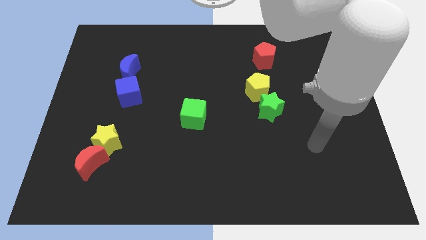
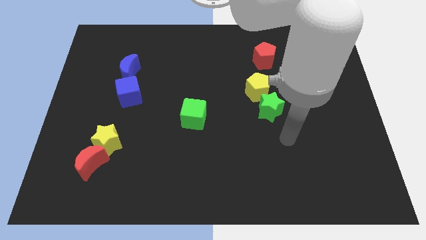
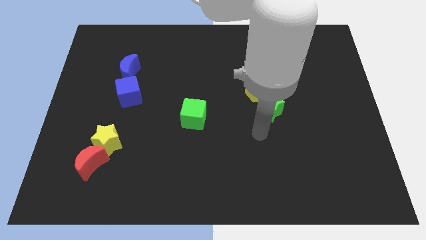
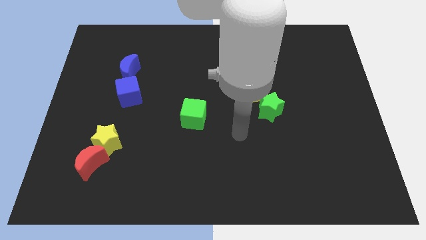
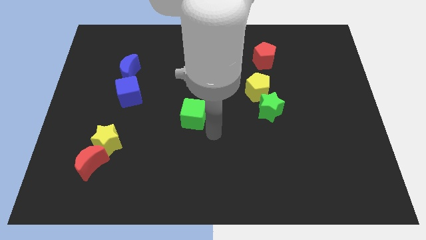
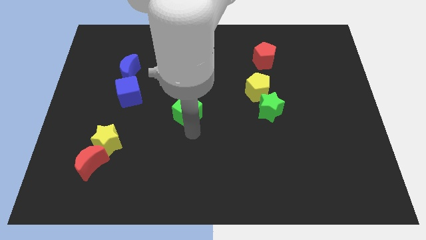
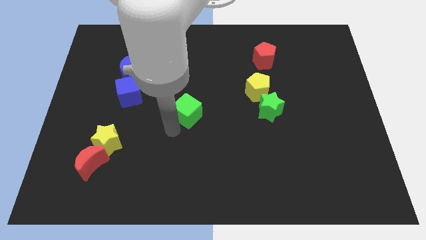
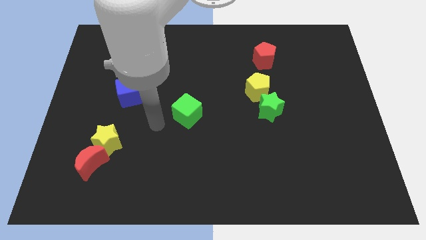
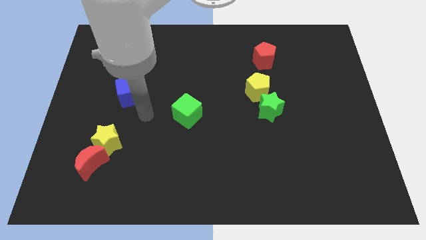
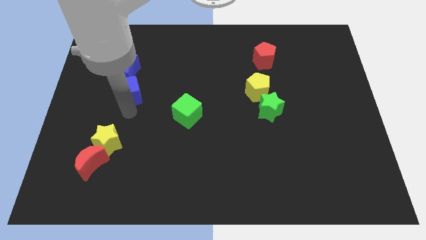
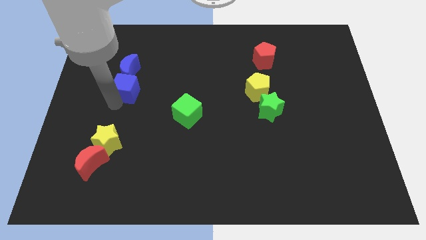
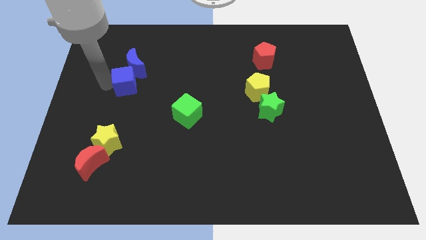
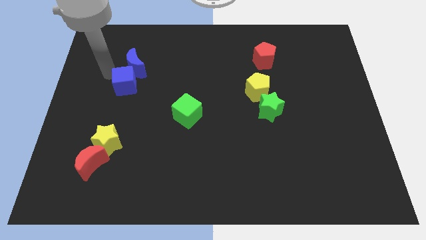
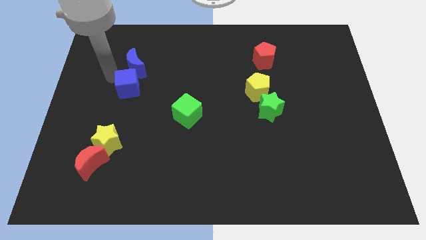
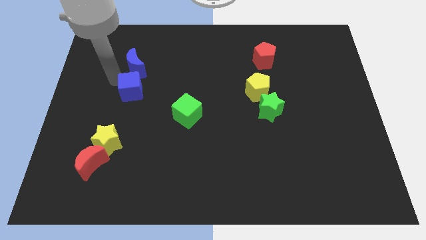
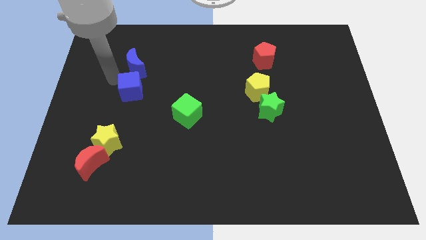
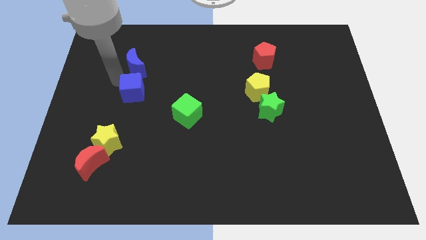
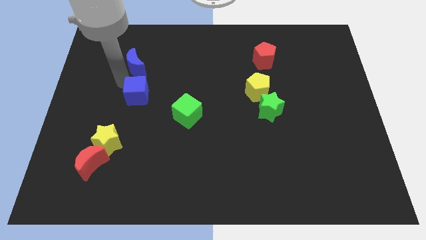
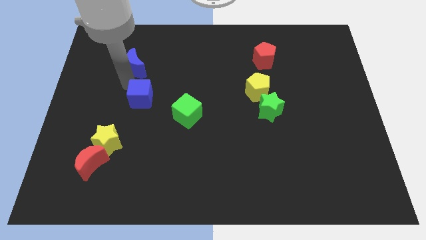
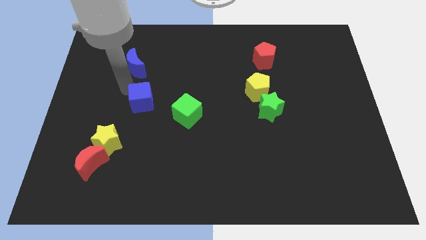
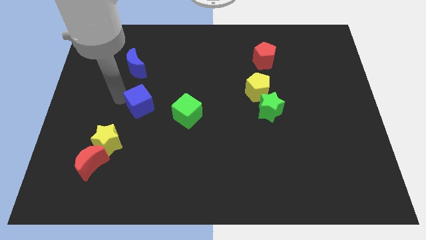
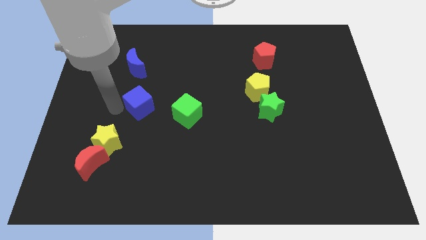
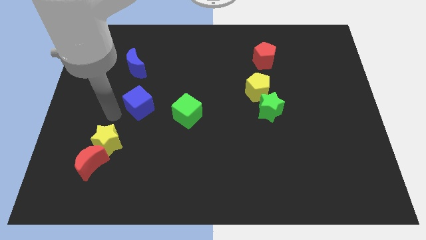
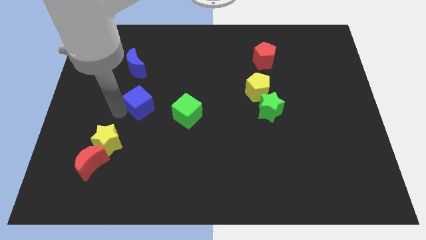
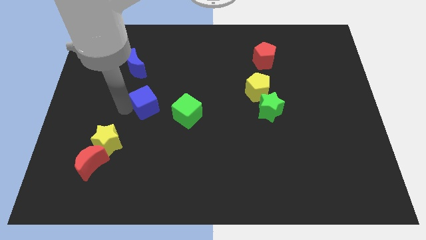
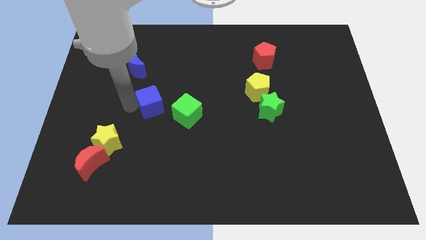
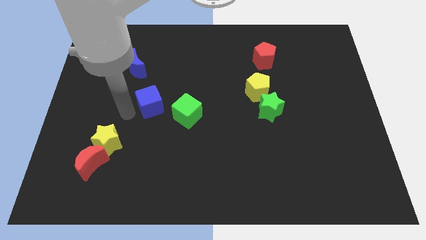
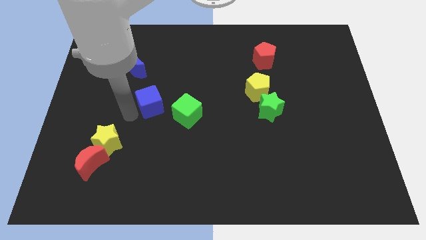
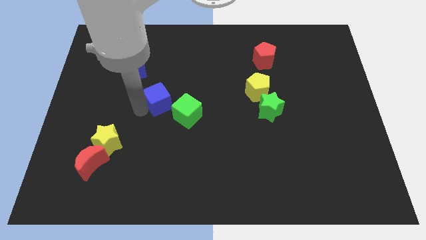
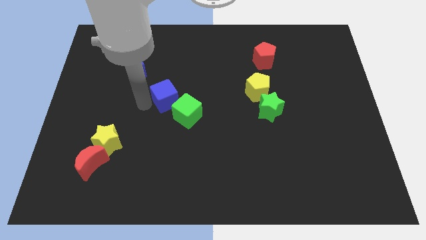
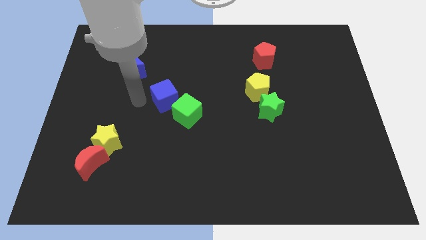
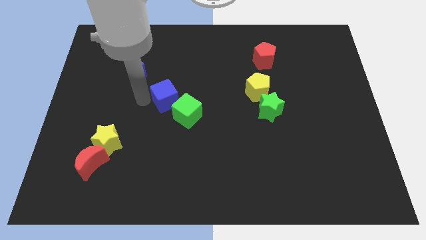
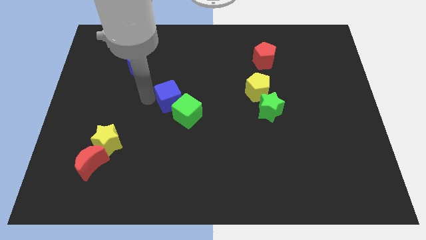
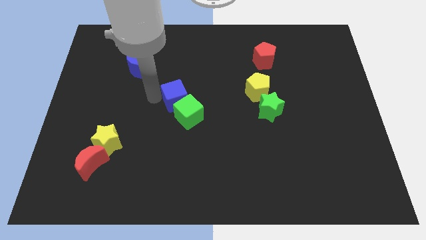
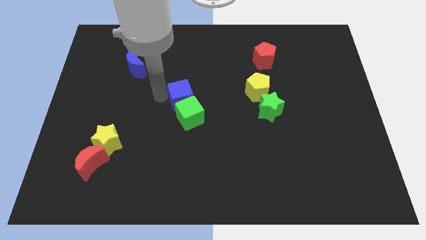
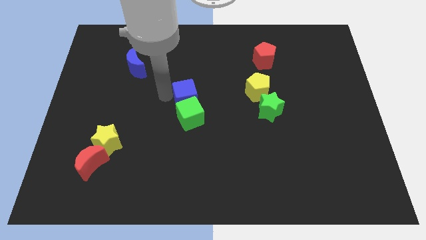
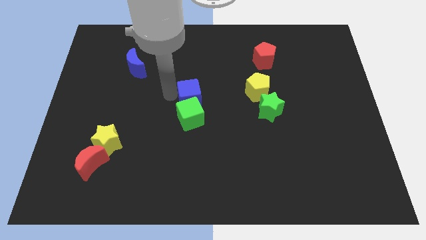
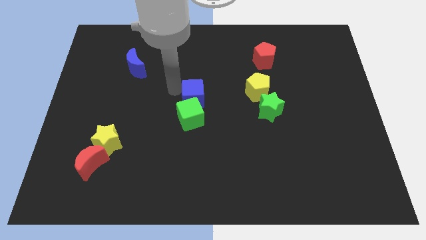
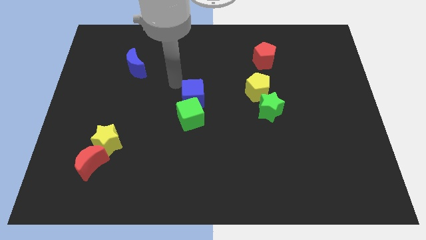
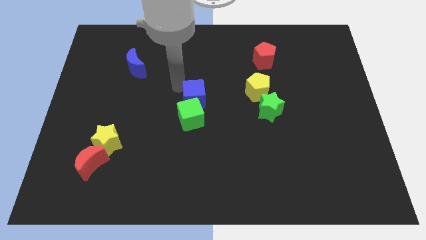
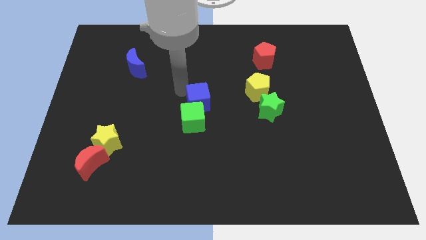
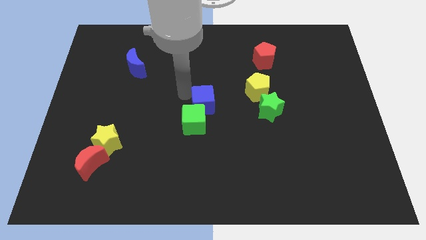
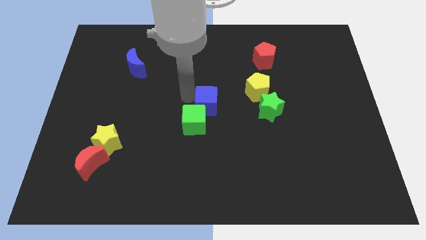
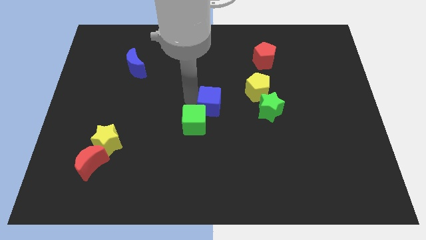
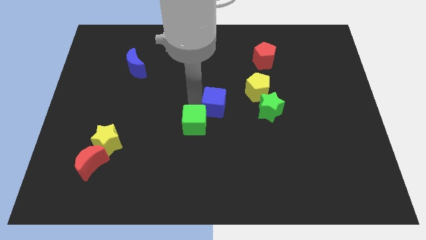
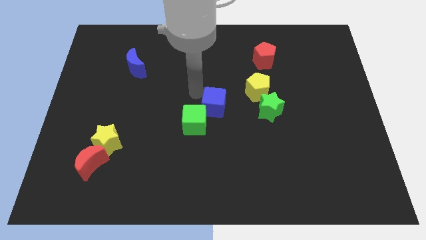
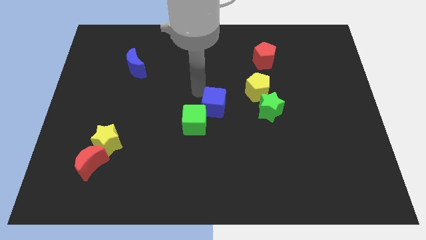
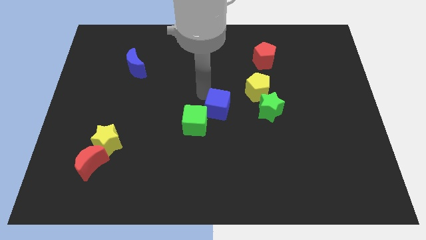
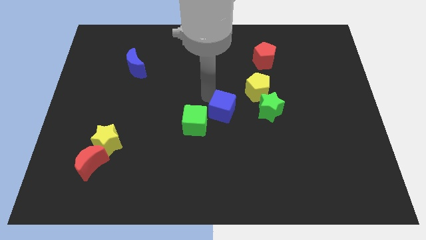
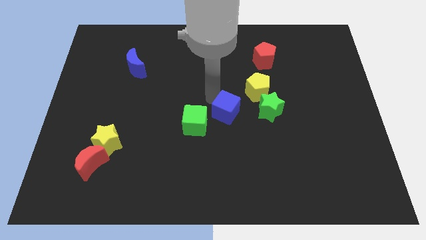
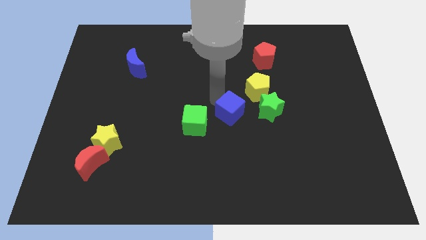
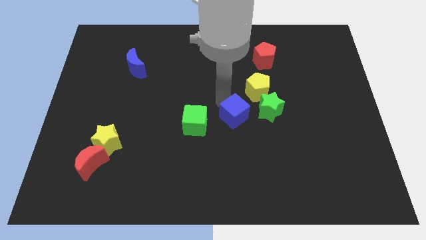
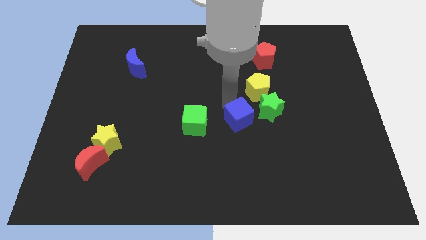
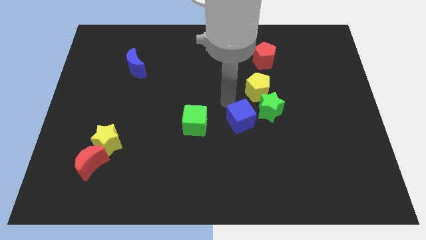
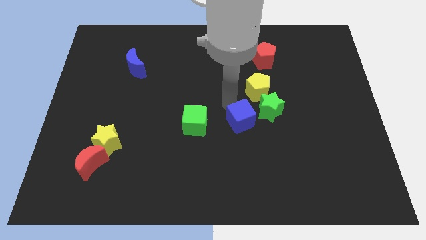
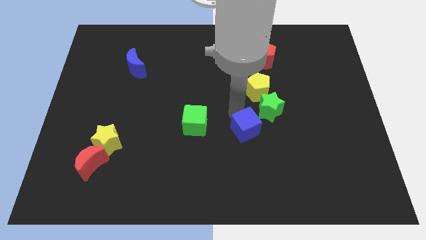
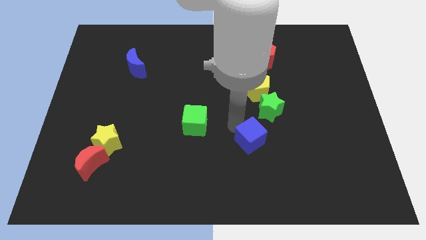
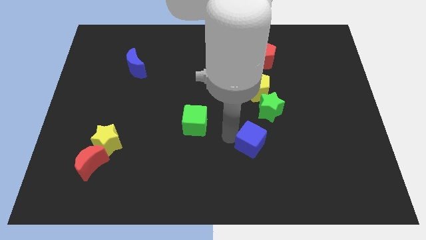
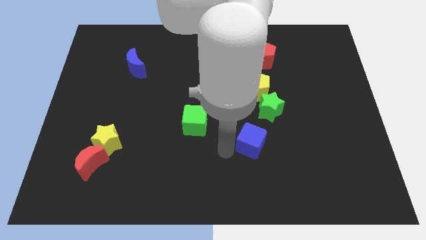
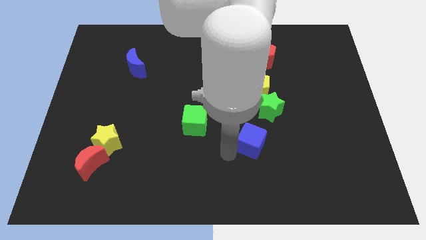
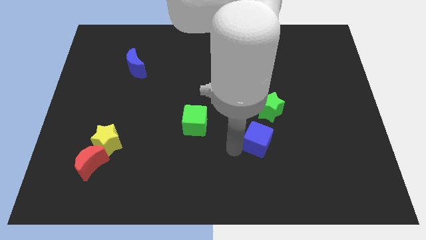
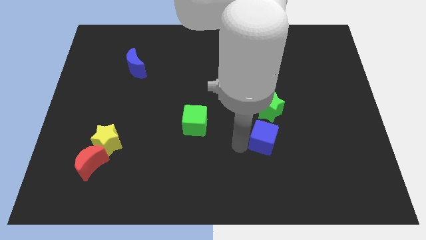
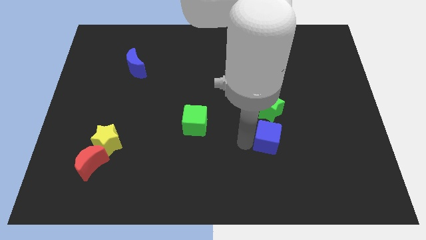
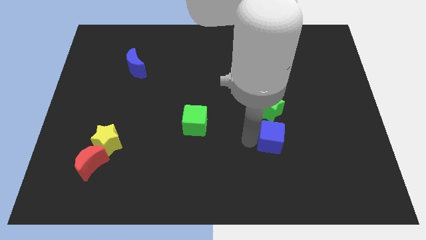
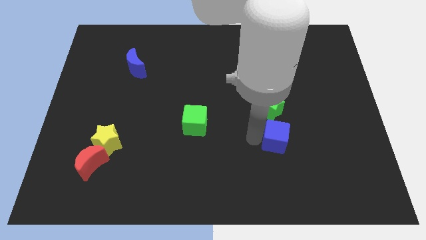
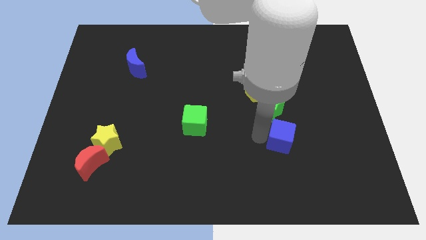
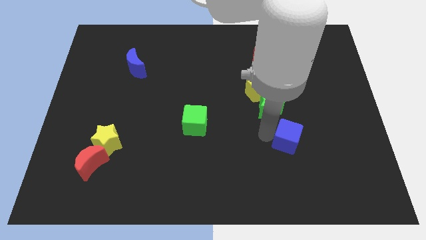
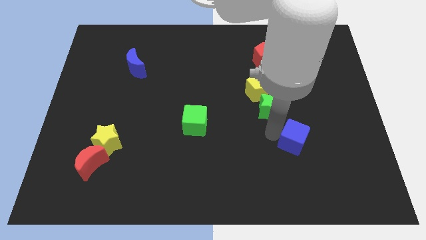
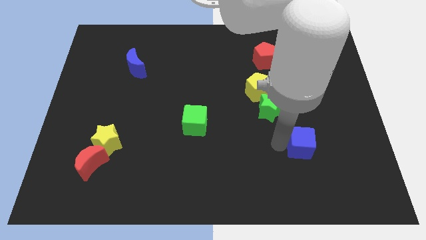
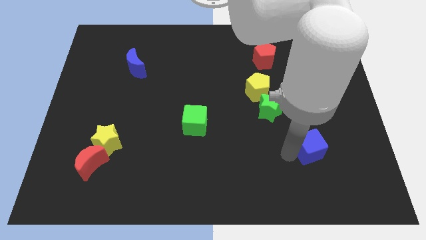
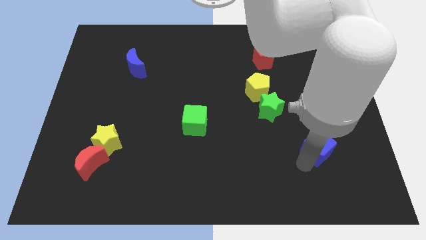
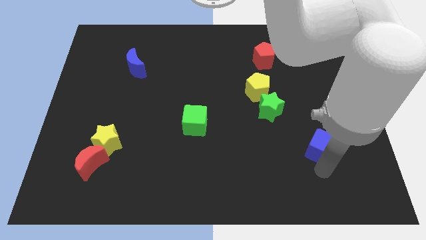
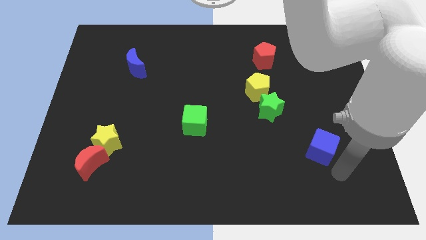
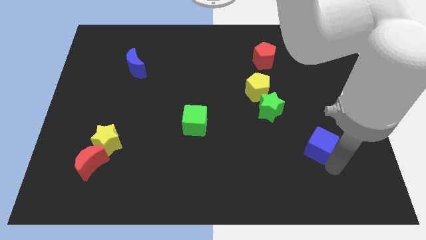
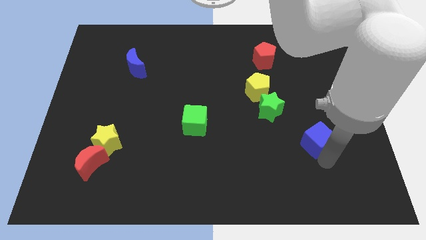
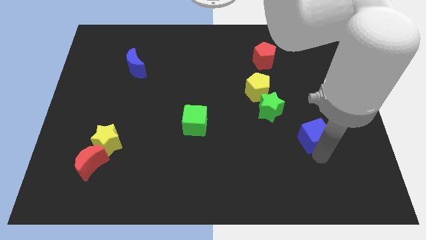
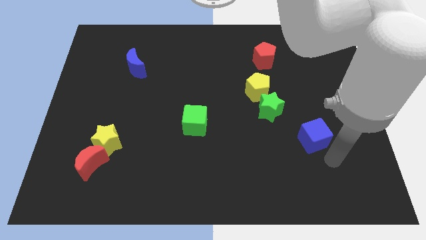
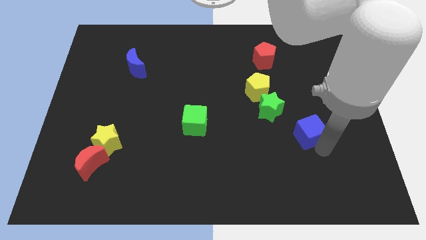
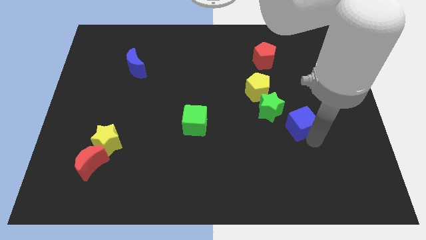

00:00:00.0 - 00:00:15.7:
slide the blue cube to the right of the green star
